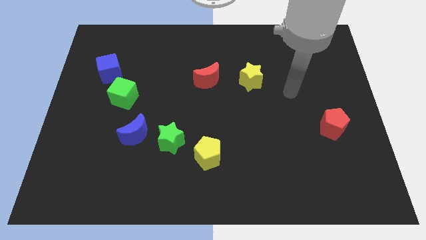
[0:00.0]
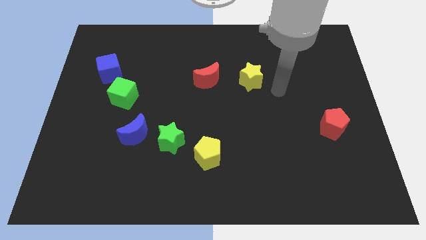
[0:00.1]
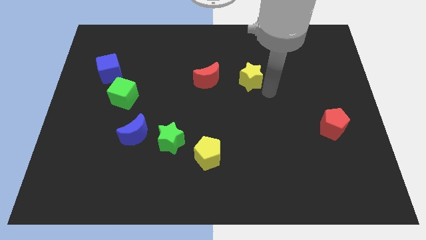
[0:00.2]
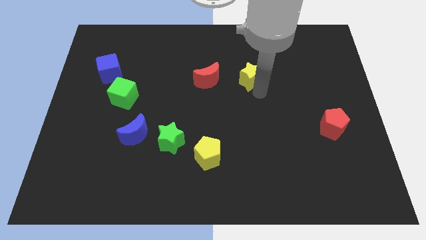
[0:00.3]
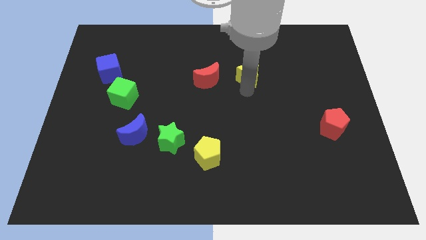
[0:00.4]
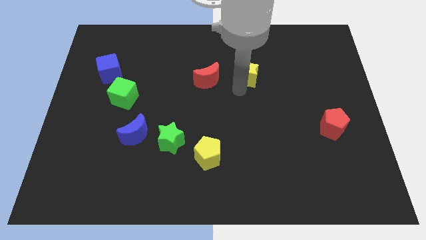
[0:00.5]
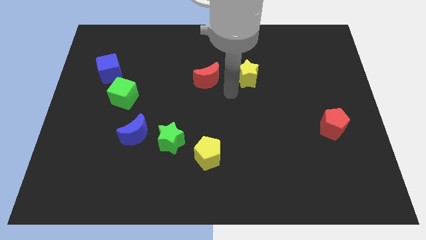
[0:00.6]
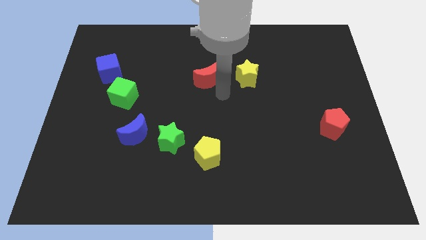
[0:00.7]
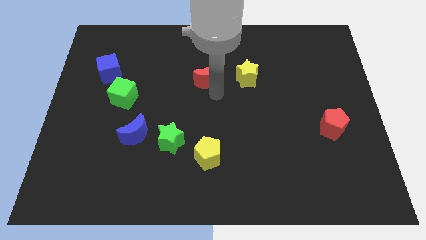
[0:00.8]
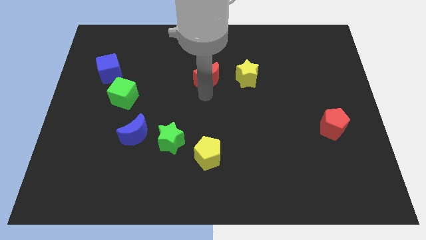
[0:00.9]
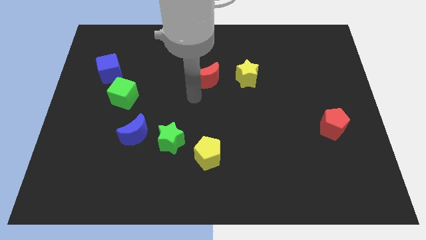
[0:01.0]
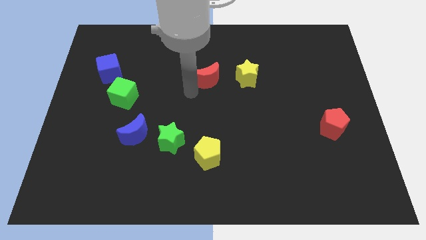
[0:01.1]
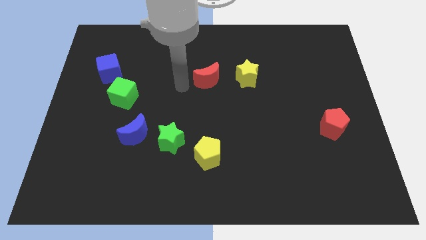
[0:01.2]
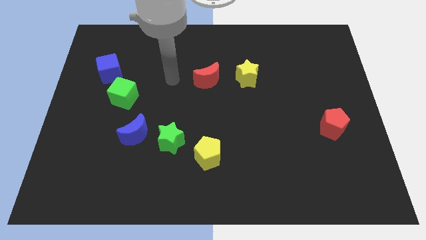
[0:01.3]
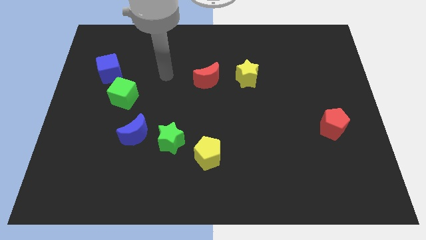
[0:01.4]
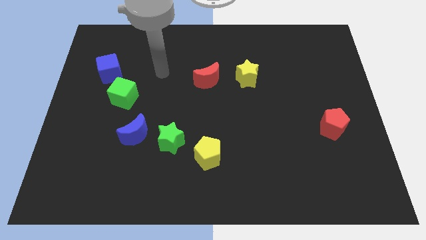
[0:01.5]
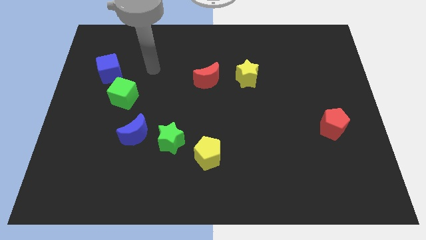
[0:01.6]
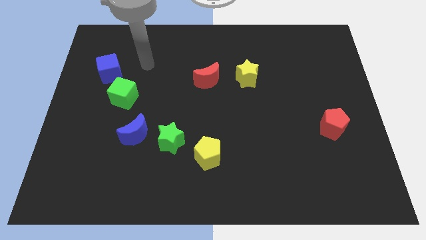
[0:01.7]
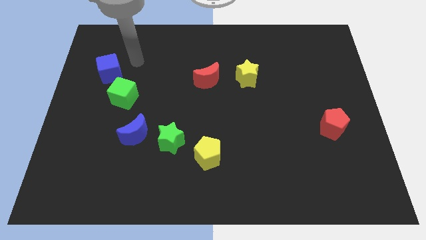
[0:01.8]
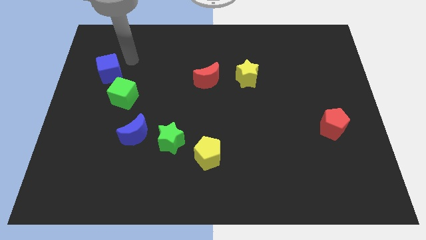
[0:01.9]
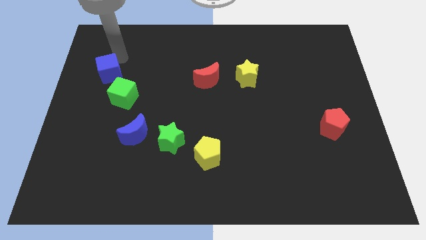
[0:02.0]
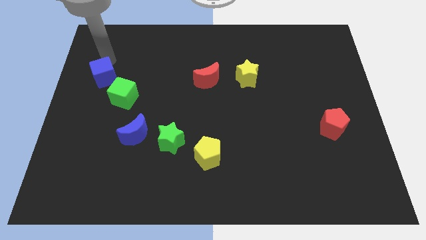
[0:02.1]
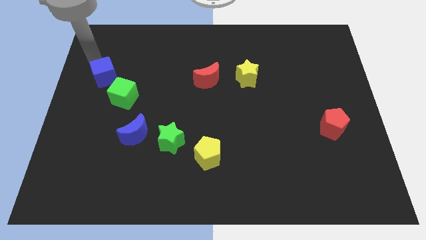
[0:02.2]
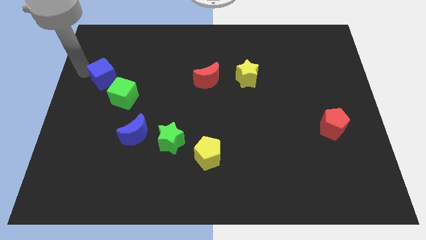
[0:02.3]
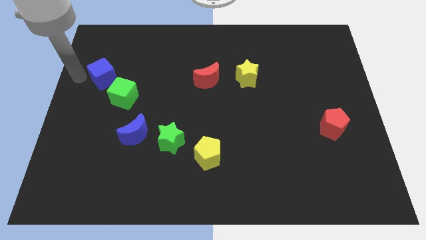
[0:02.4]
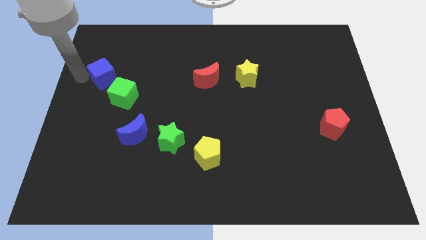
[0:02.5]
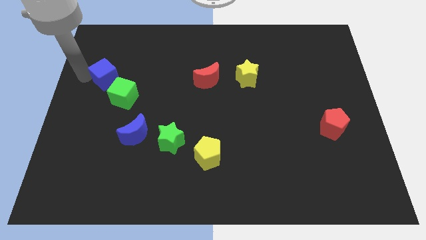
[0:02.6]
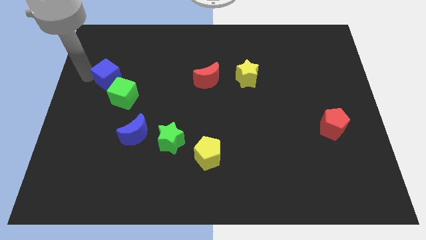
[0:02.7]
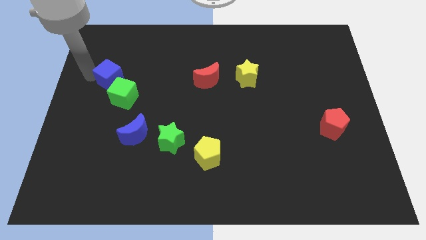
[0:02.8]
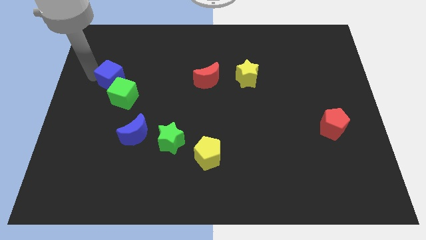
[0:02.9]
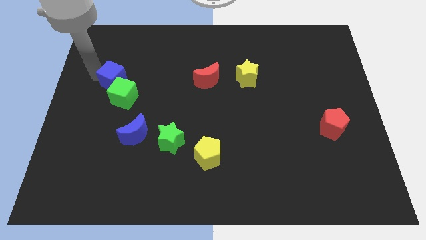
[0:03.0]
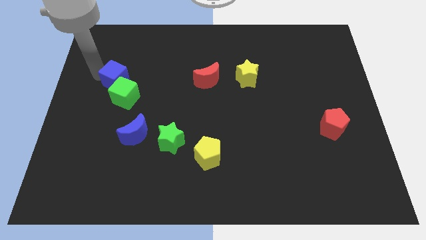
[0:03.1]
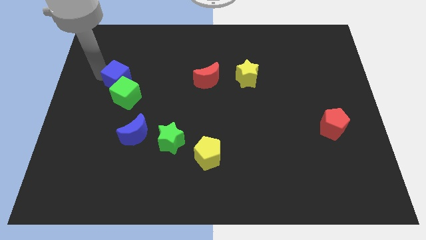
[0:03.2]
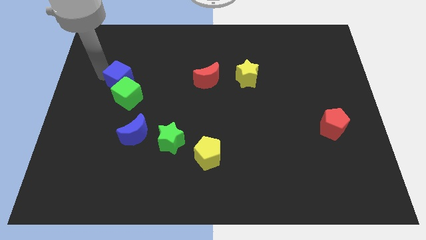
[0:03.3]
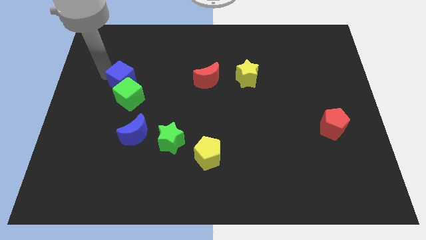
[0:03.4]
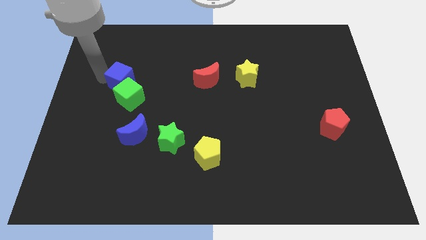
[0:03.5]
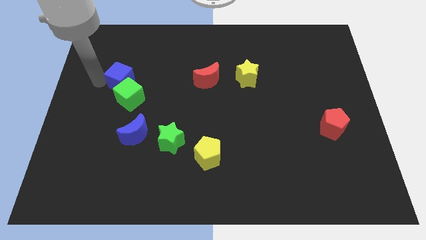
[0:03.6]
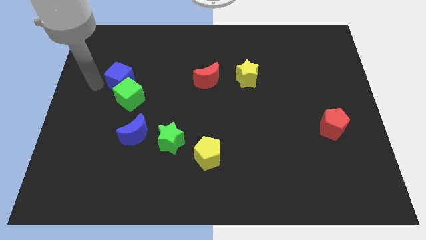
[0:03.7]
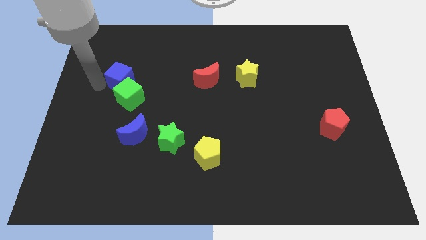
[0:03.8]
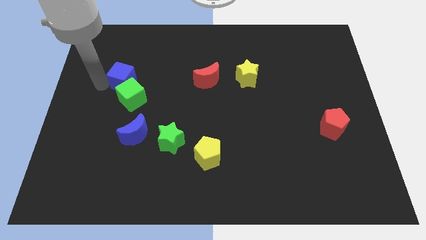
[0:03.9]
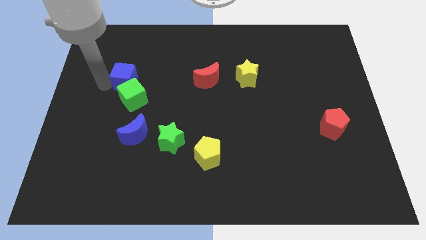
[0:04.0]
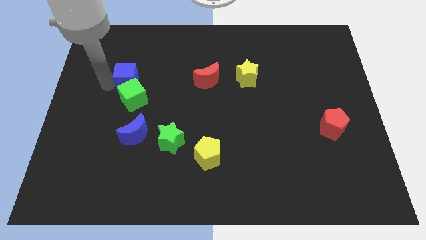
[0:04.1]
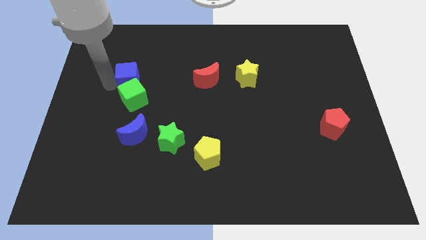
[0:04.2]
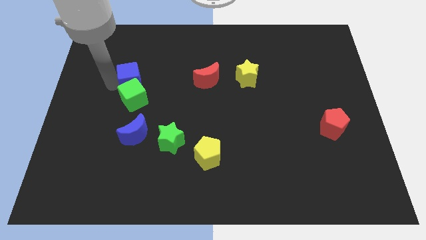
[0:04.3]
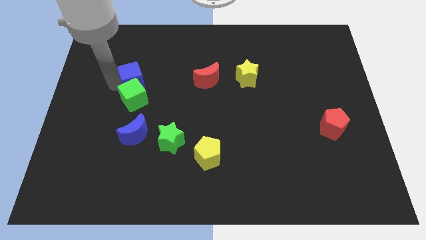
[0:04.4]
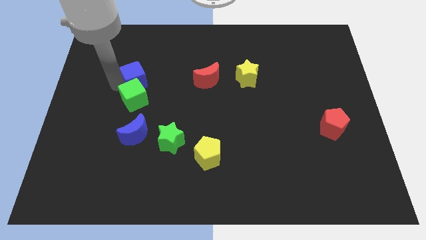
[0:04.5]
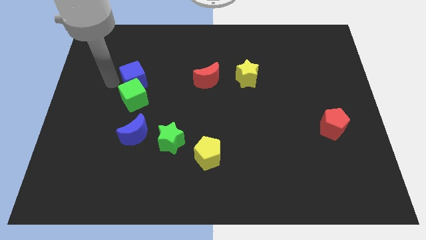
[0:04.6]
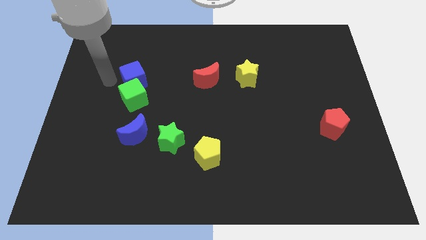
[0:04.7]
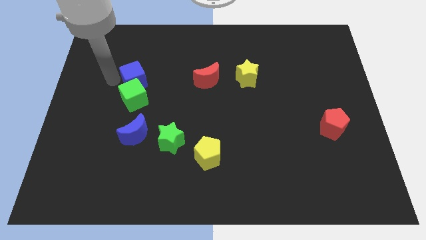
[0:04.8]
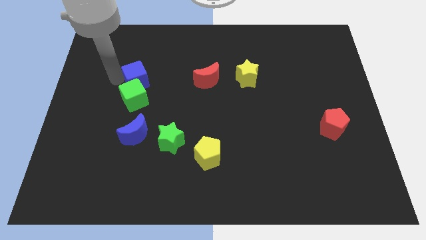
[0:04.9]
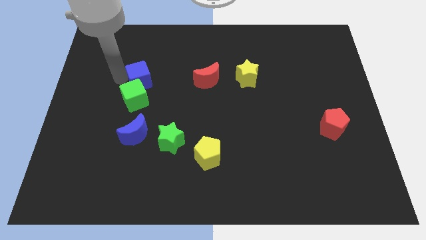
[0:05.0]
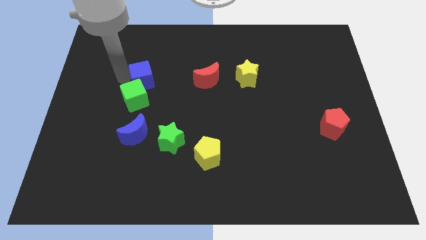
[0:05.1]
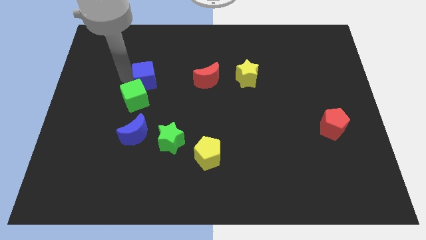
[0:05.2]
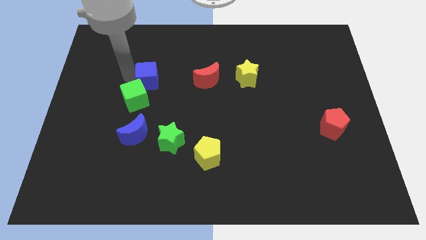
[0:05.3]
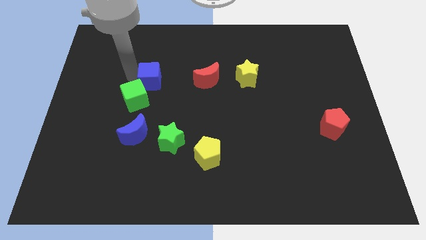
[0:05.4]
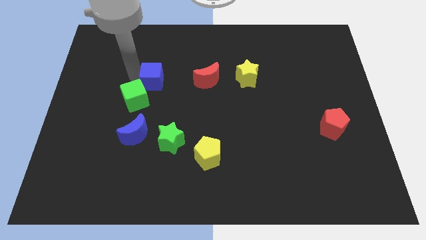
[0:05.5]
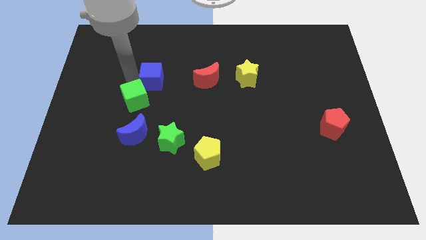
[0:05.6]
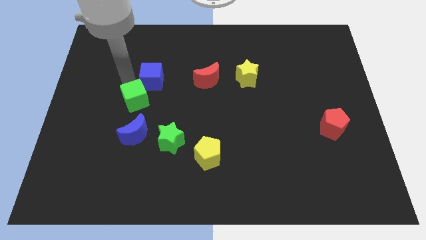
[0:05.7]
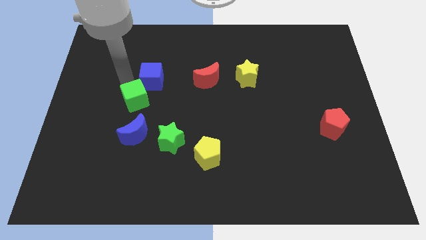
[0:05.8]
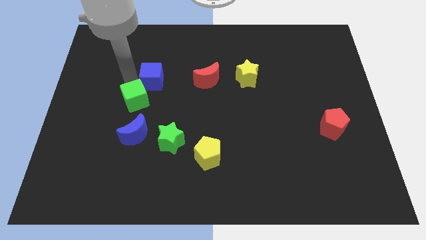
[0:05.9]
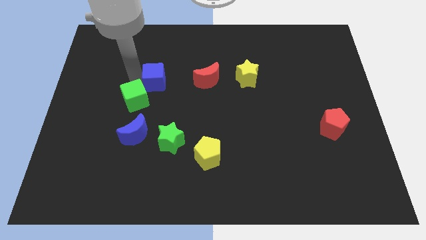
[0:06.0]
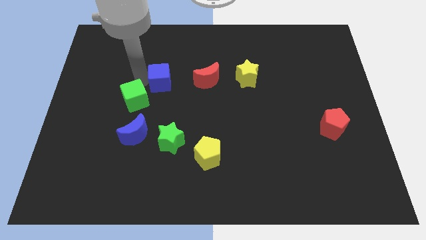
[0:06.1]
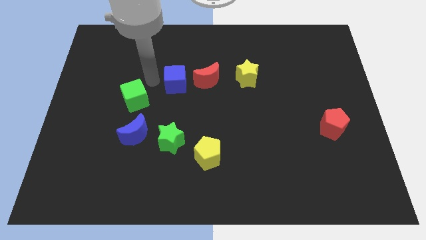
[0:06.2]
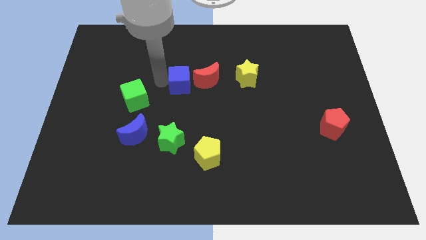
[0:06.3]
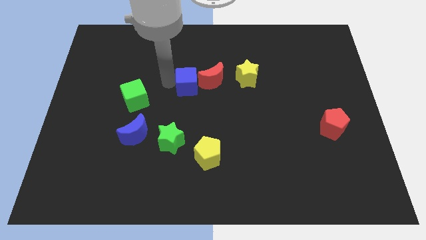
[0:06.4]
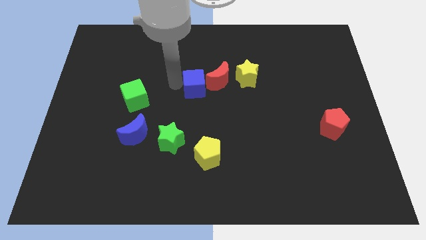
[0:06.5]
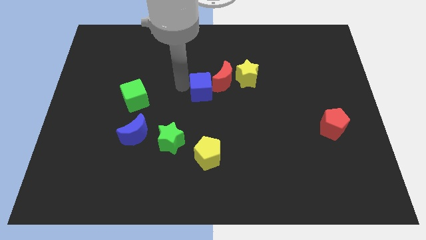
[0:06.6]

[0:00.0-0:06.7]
slide the blue cube next to the red moon

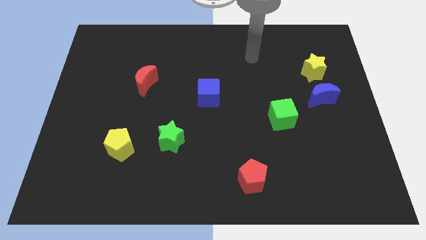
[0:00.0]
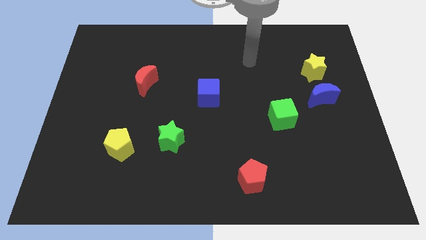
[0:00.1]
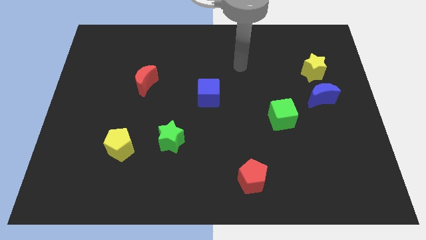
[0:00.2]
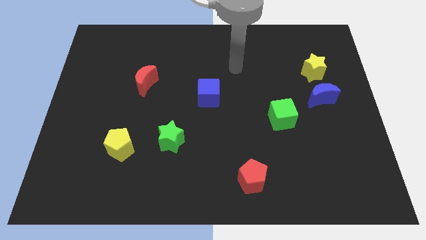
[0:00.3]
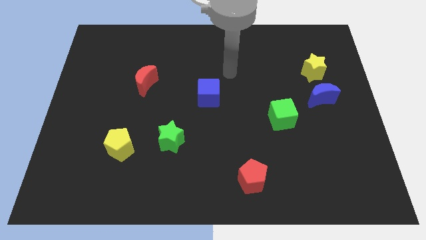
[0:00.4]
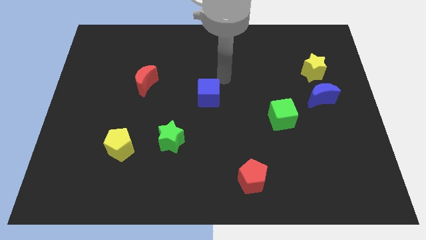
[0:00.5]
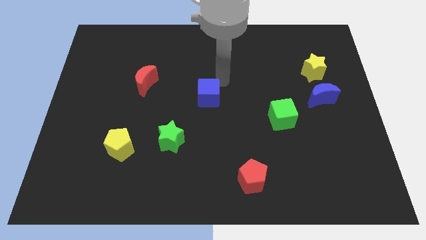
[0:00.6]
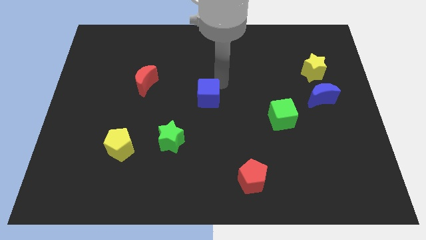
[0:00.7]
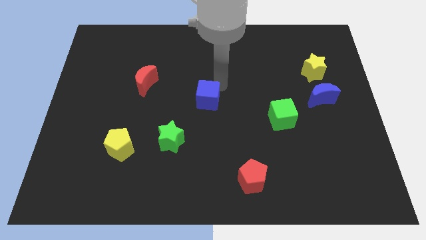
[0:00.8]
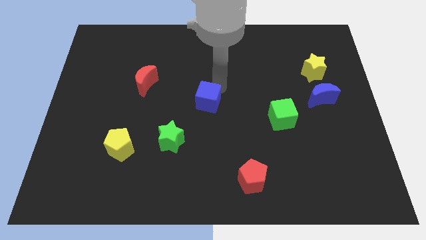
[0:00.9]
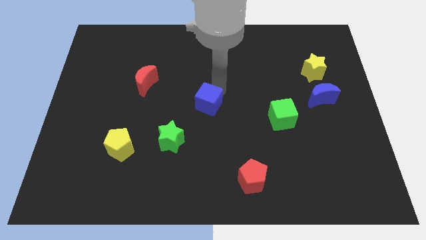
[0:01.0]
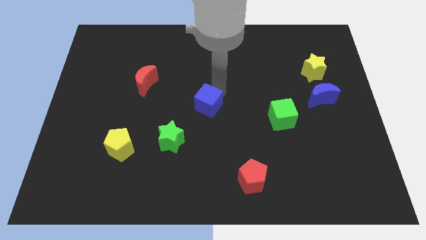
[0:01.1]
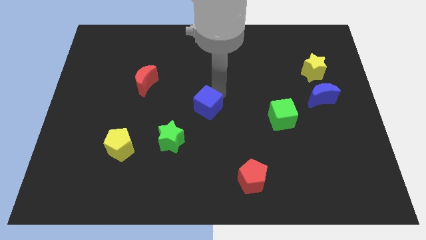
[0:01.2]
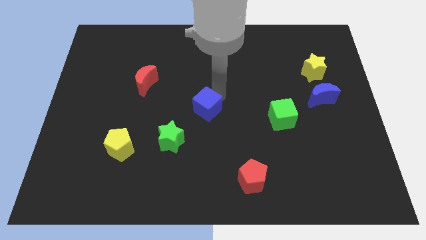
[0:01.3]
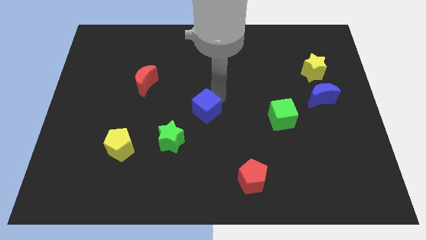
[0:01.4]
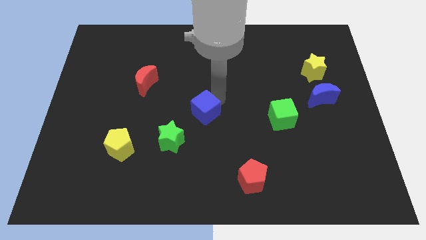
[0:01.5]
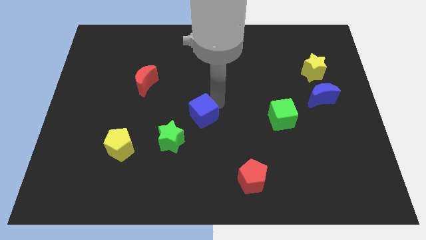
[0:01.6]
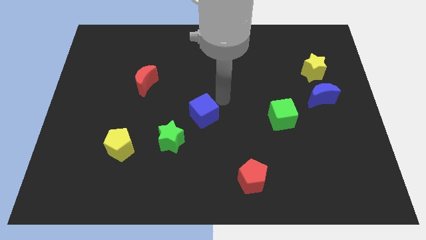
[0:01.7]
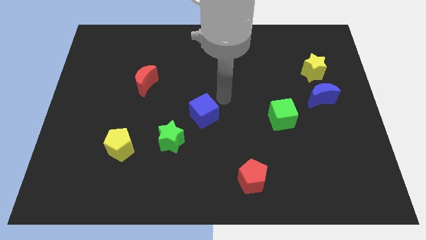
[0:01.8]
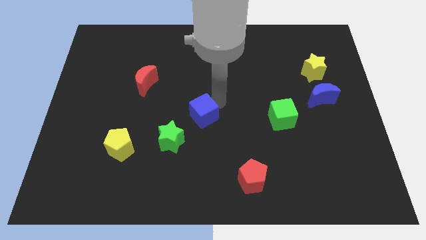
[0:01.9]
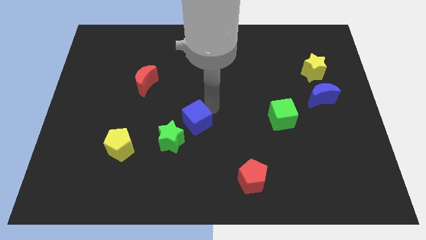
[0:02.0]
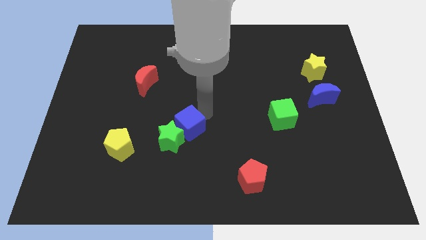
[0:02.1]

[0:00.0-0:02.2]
put the blue cube close to the green star
